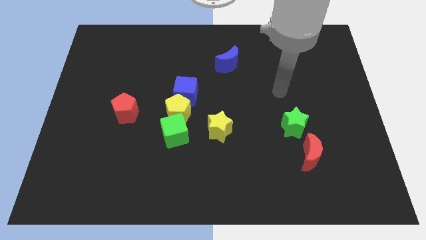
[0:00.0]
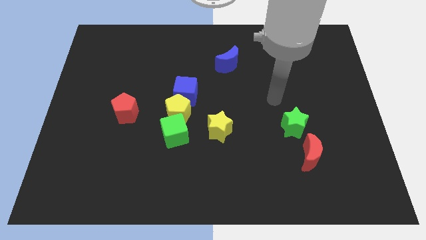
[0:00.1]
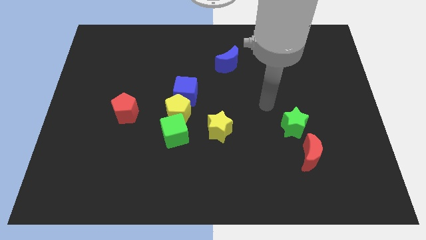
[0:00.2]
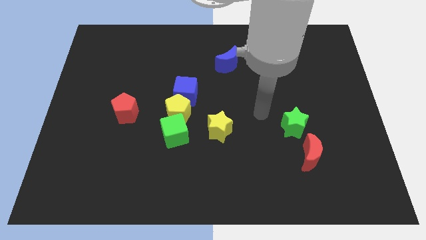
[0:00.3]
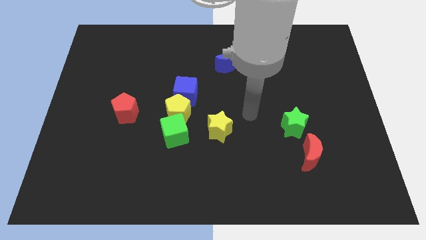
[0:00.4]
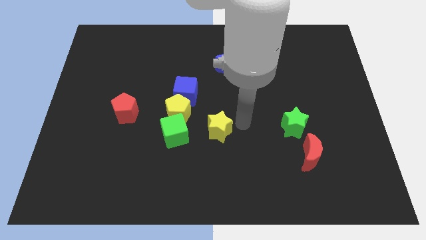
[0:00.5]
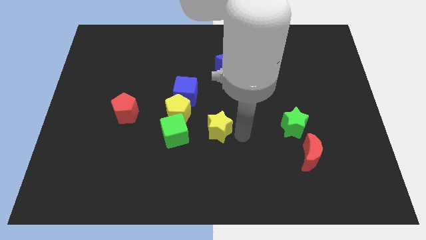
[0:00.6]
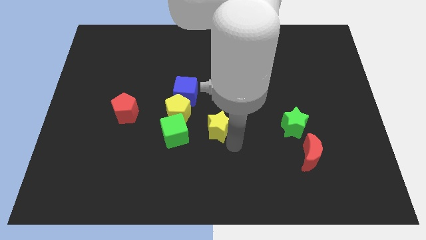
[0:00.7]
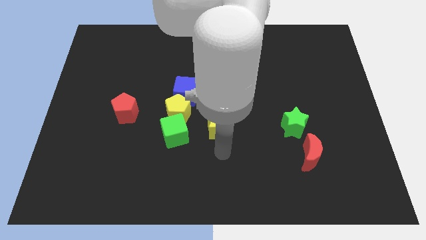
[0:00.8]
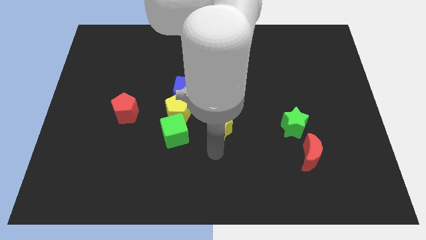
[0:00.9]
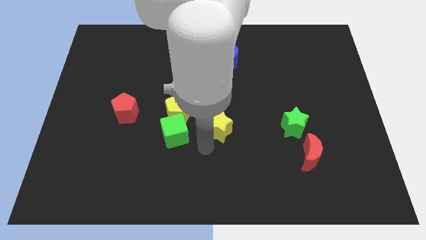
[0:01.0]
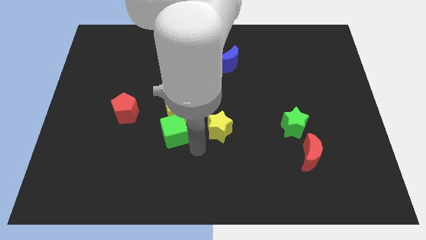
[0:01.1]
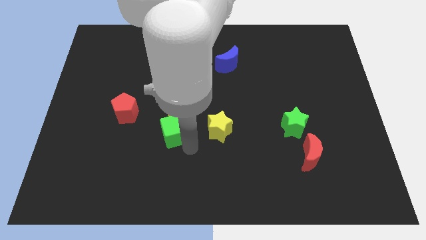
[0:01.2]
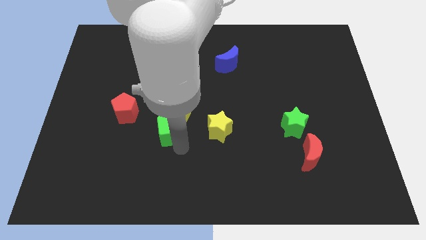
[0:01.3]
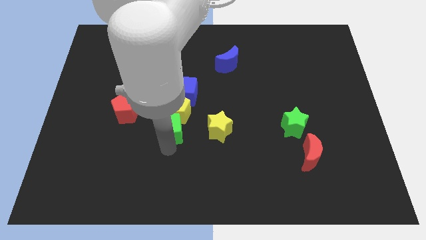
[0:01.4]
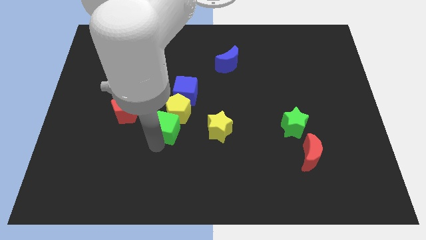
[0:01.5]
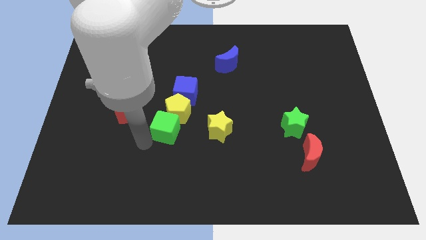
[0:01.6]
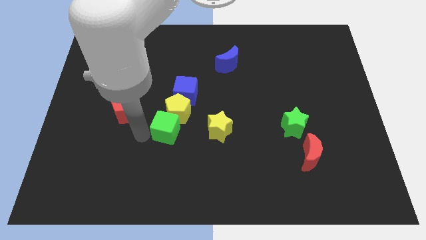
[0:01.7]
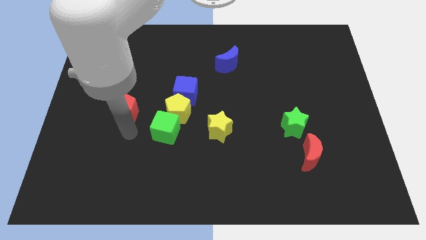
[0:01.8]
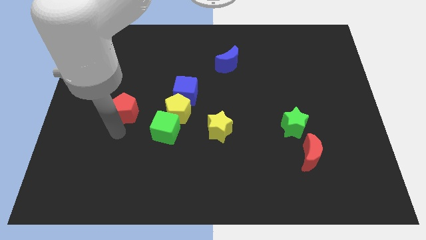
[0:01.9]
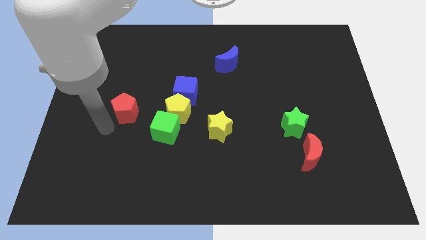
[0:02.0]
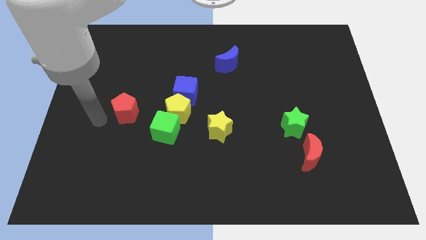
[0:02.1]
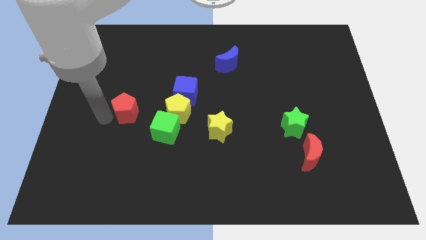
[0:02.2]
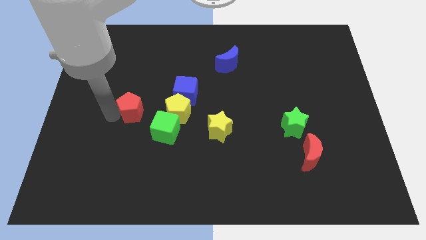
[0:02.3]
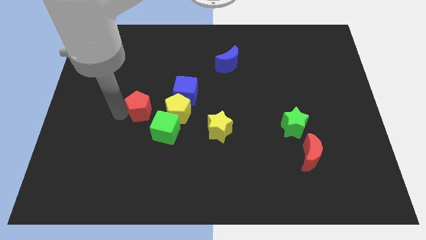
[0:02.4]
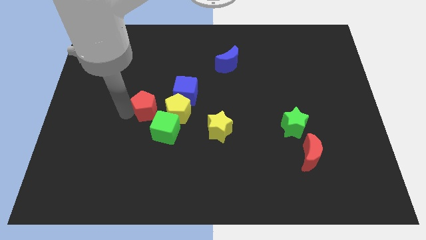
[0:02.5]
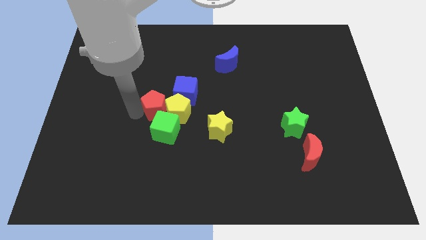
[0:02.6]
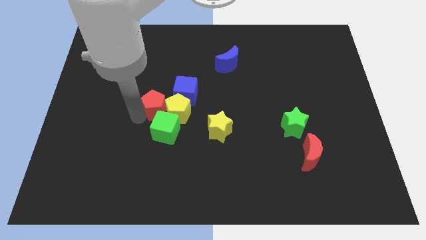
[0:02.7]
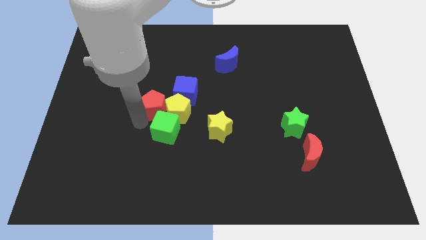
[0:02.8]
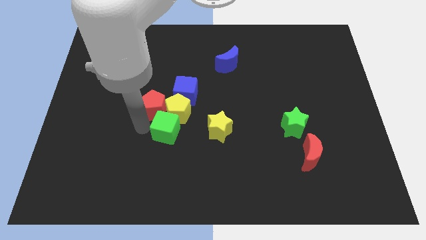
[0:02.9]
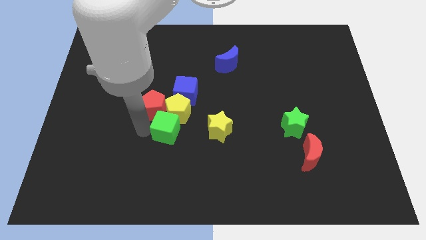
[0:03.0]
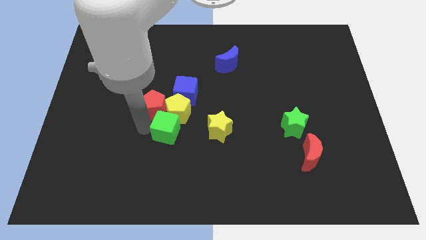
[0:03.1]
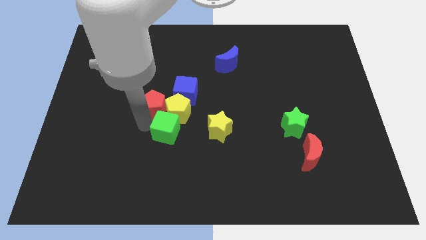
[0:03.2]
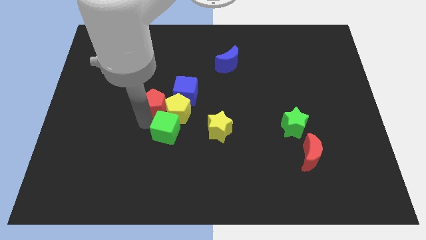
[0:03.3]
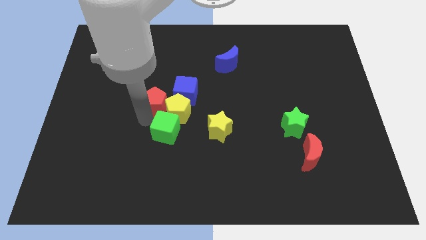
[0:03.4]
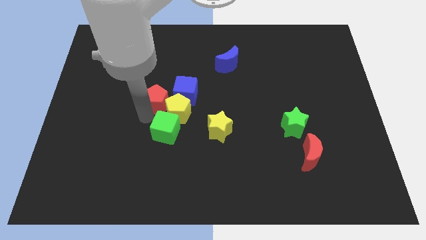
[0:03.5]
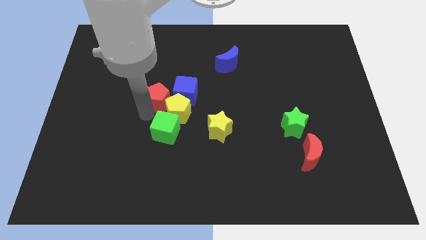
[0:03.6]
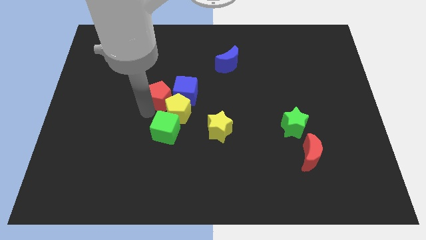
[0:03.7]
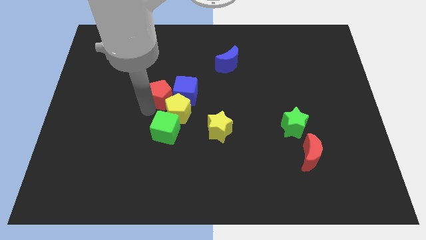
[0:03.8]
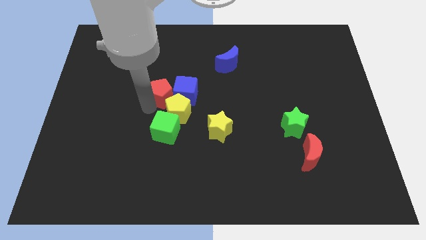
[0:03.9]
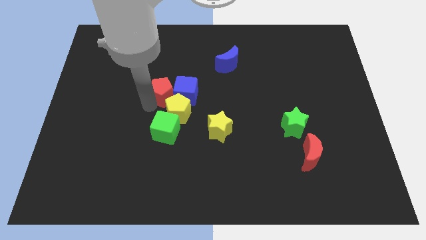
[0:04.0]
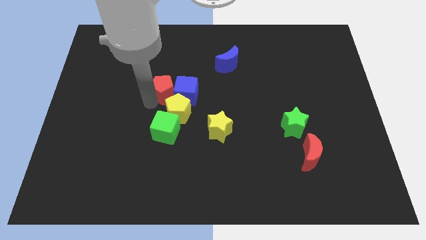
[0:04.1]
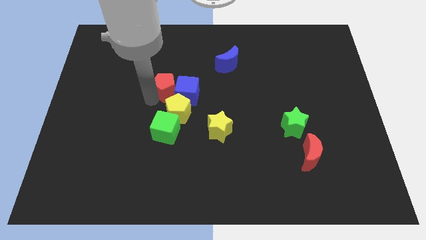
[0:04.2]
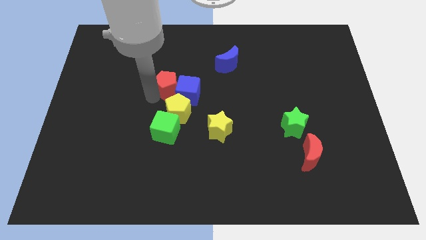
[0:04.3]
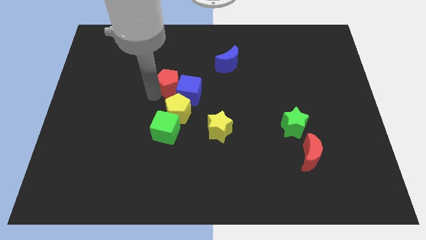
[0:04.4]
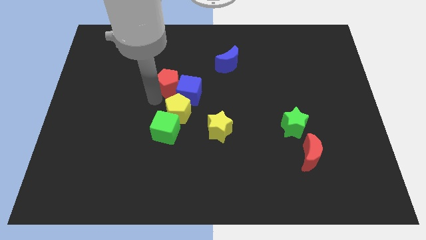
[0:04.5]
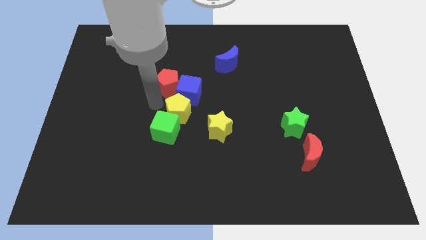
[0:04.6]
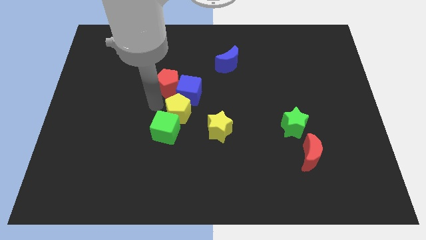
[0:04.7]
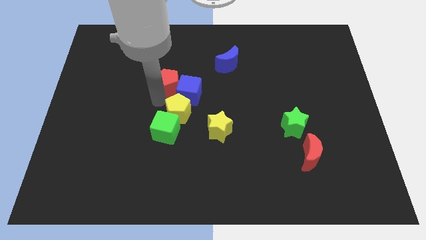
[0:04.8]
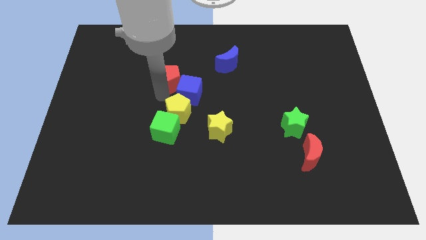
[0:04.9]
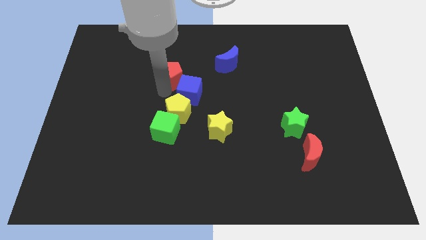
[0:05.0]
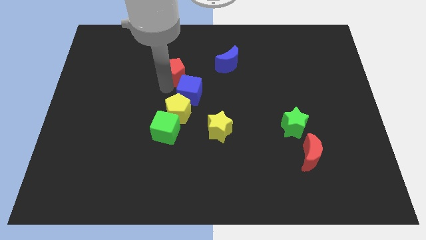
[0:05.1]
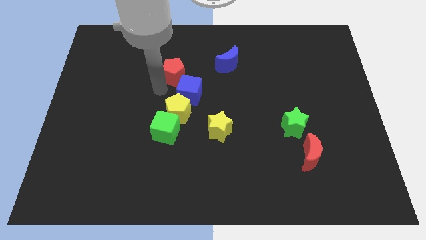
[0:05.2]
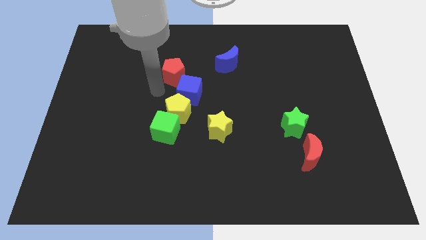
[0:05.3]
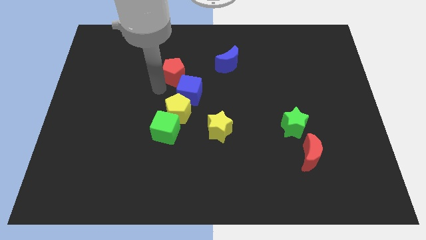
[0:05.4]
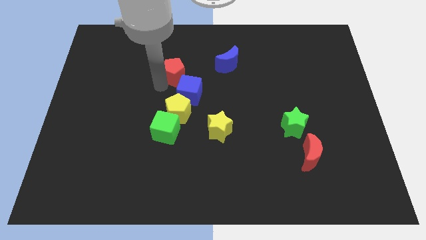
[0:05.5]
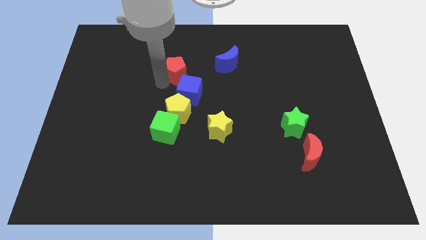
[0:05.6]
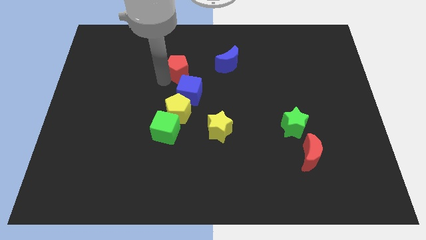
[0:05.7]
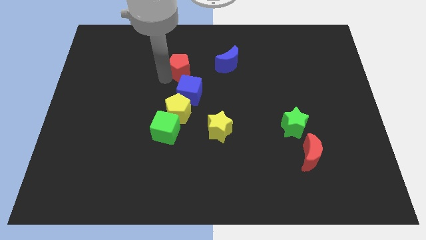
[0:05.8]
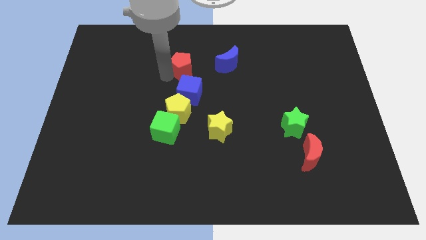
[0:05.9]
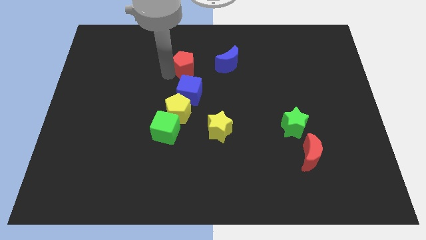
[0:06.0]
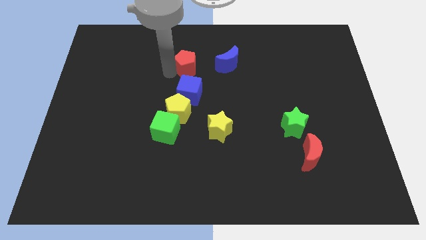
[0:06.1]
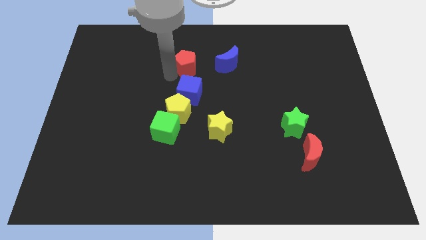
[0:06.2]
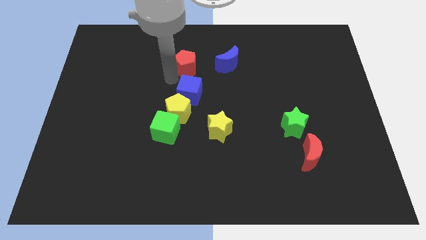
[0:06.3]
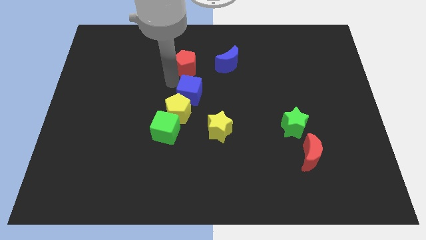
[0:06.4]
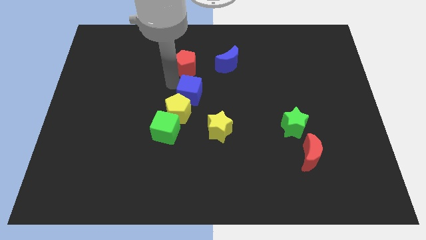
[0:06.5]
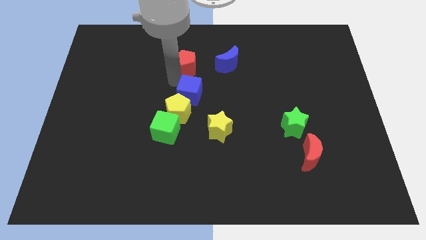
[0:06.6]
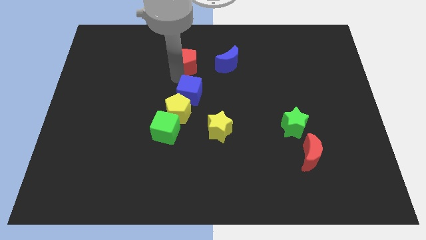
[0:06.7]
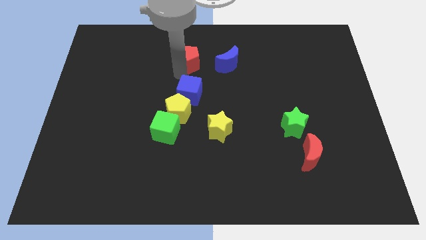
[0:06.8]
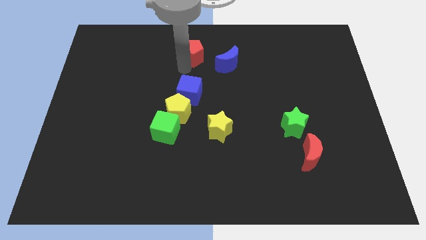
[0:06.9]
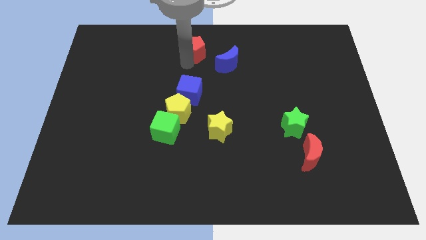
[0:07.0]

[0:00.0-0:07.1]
move the red pentagon to the top side

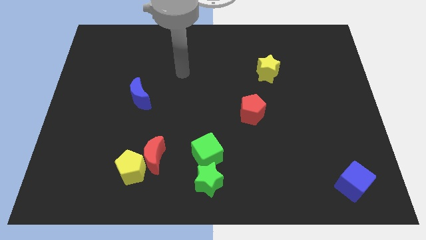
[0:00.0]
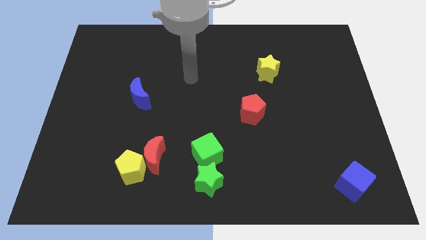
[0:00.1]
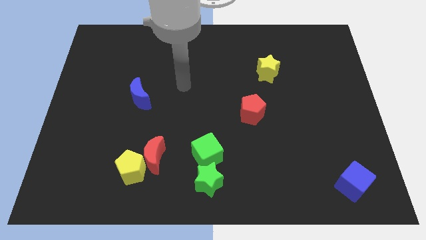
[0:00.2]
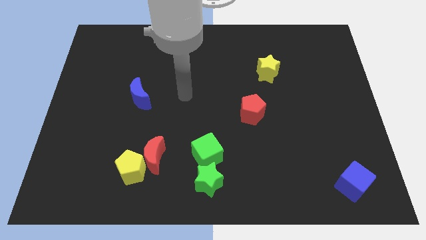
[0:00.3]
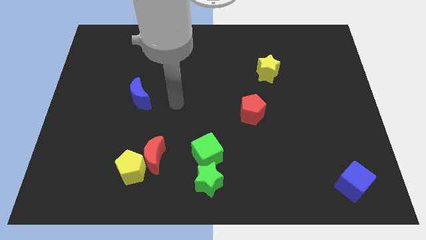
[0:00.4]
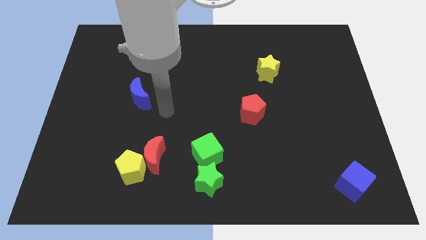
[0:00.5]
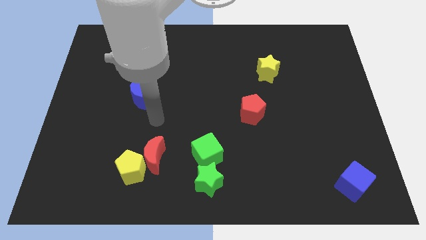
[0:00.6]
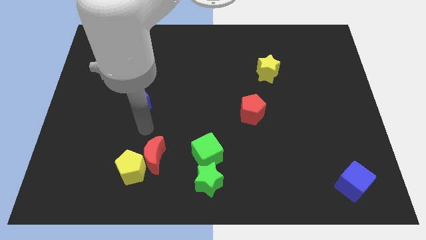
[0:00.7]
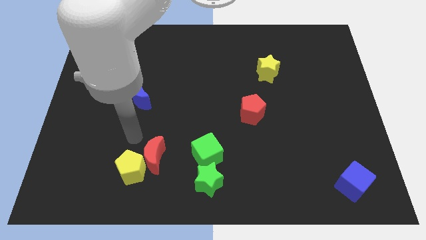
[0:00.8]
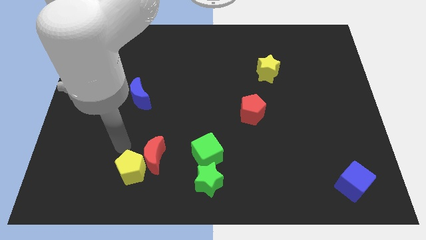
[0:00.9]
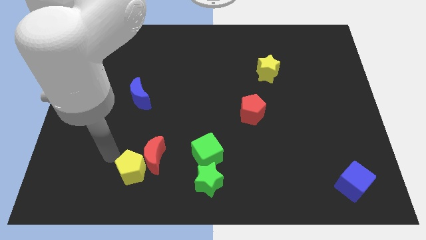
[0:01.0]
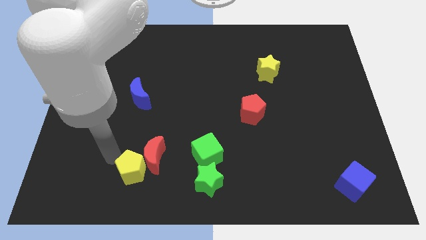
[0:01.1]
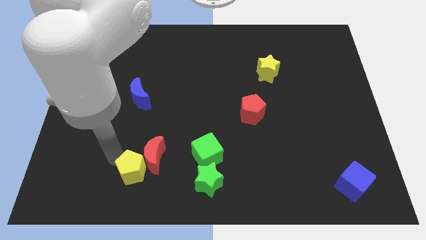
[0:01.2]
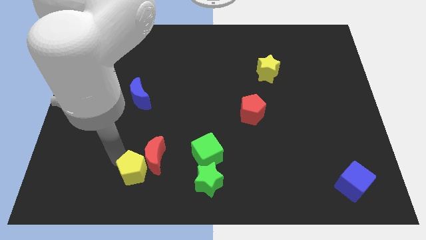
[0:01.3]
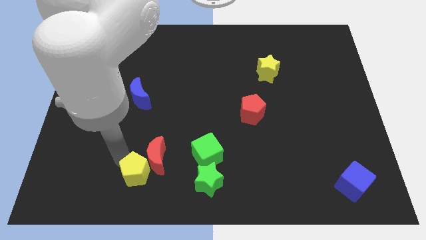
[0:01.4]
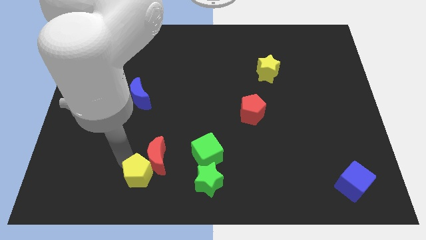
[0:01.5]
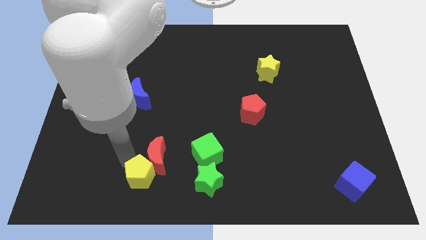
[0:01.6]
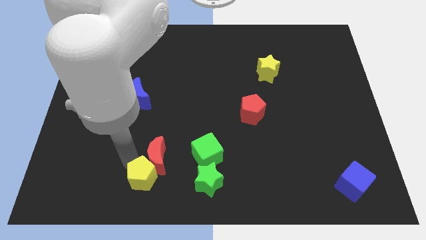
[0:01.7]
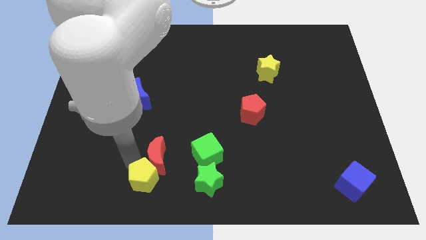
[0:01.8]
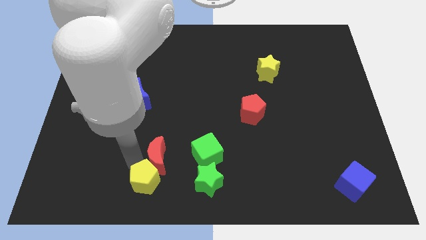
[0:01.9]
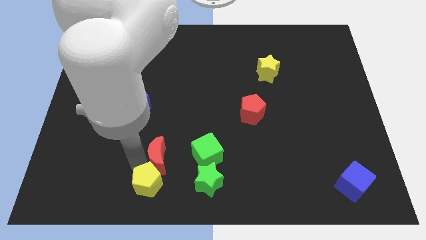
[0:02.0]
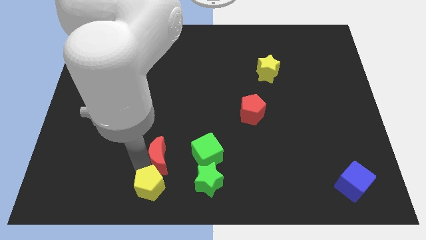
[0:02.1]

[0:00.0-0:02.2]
move the yellow pentagon to the bottom side
